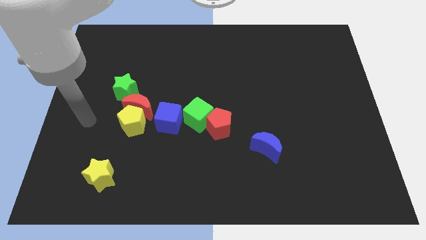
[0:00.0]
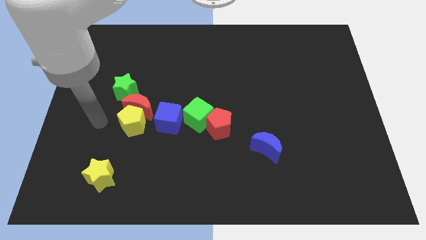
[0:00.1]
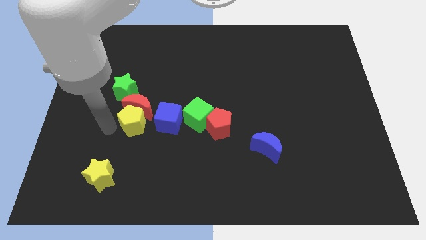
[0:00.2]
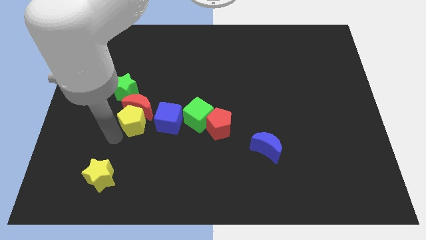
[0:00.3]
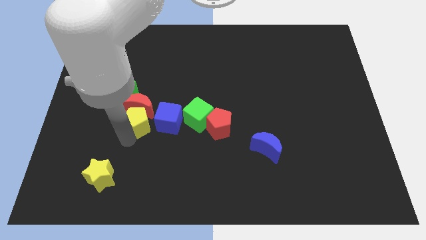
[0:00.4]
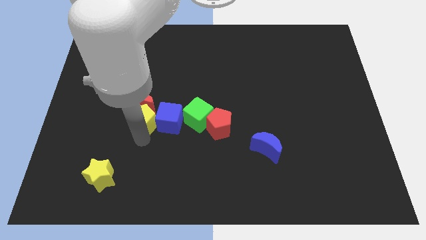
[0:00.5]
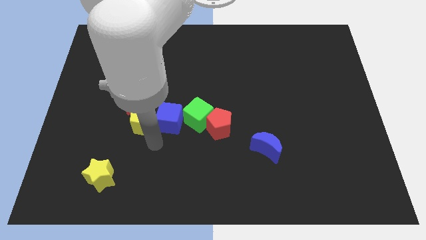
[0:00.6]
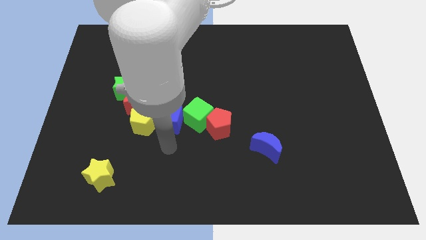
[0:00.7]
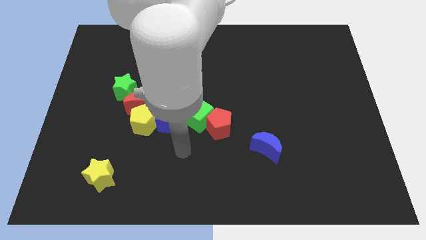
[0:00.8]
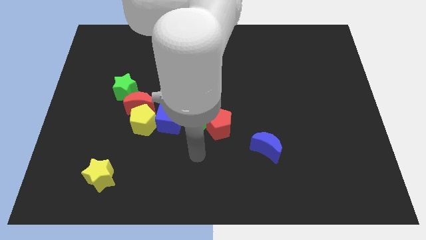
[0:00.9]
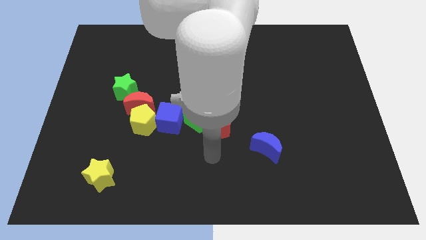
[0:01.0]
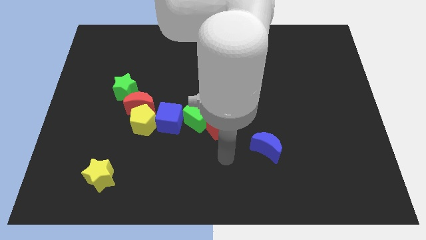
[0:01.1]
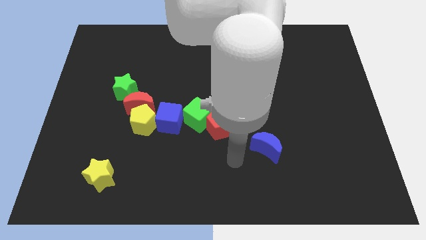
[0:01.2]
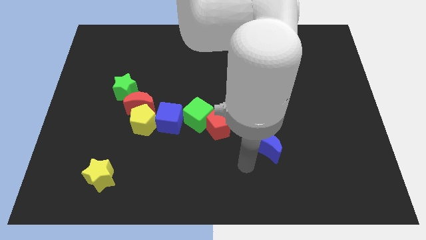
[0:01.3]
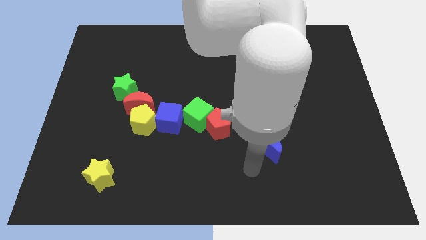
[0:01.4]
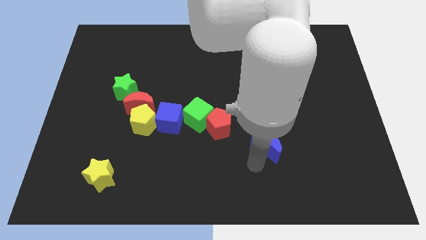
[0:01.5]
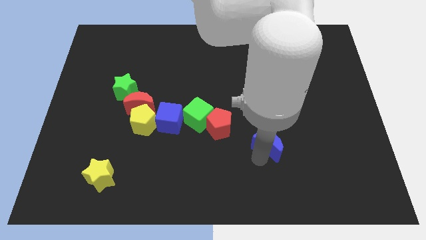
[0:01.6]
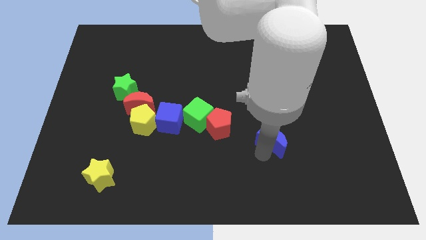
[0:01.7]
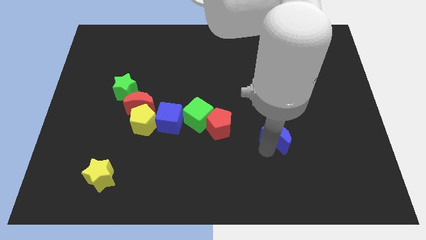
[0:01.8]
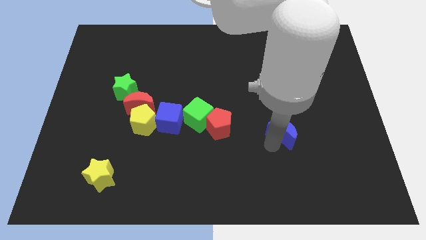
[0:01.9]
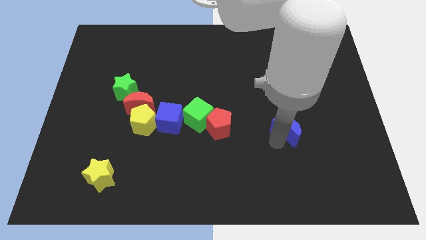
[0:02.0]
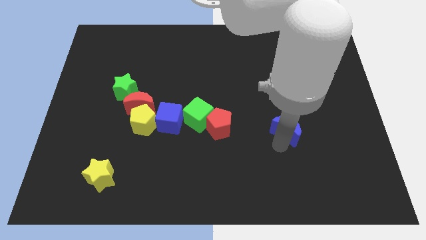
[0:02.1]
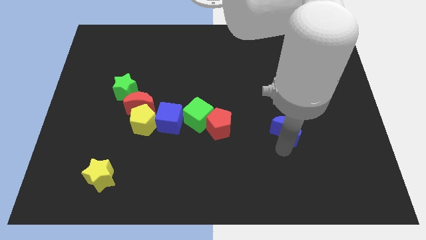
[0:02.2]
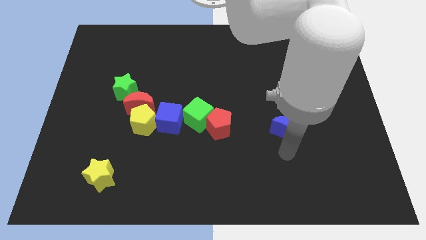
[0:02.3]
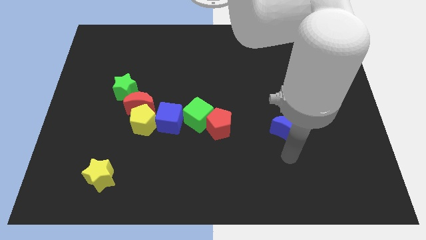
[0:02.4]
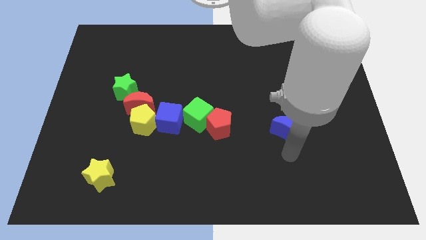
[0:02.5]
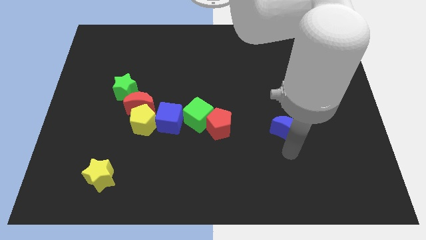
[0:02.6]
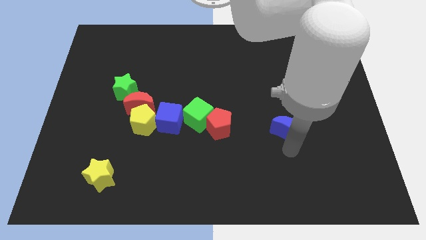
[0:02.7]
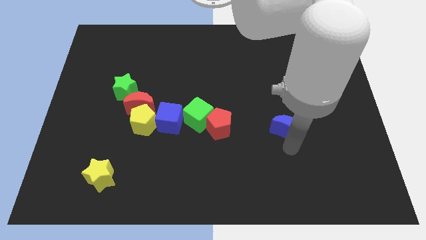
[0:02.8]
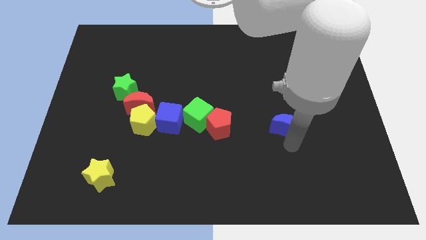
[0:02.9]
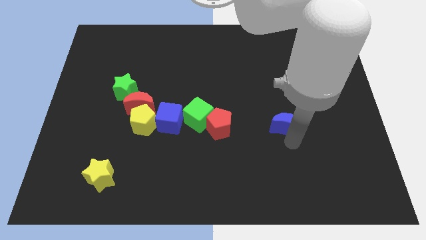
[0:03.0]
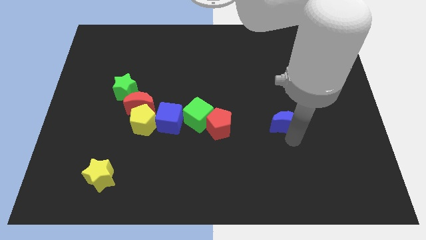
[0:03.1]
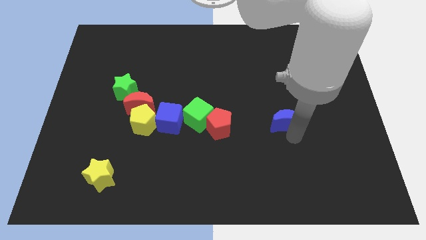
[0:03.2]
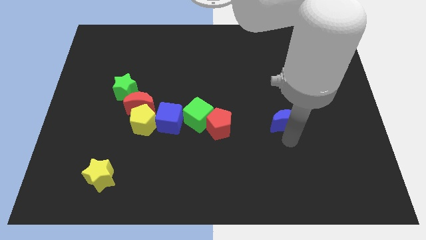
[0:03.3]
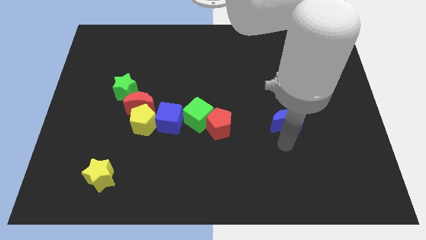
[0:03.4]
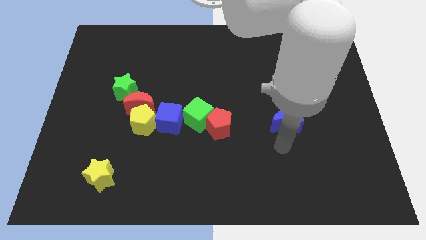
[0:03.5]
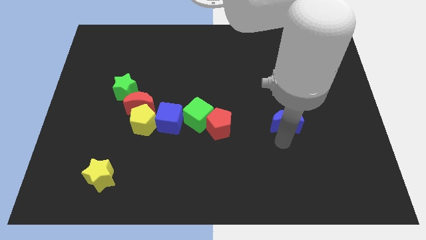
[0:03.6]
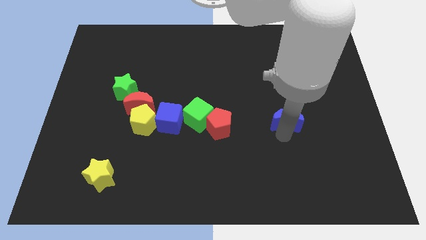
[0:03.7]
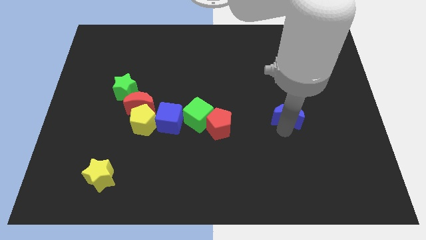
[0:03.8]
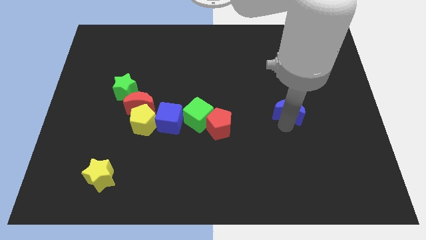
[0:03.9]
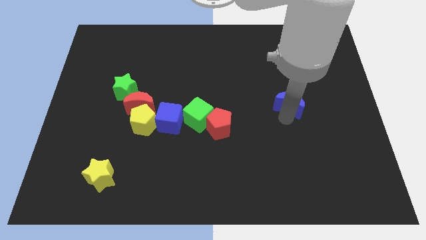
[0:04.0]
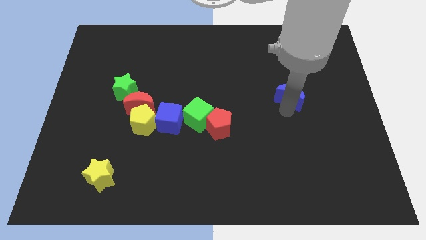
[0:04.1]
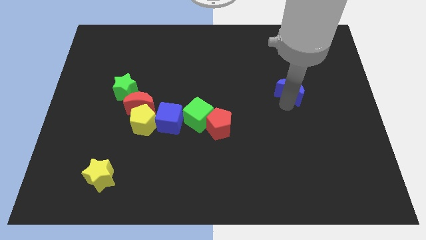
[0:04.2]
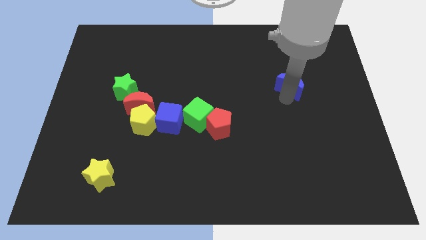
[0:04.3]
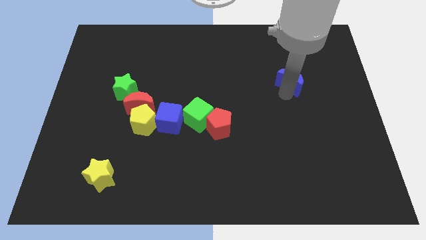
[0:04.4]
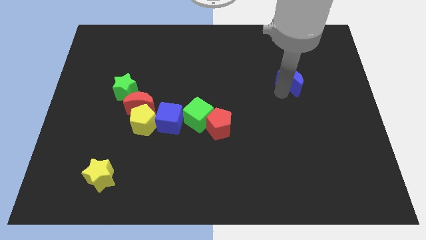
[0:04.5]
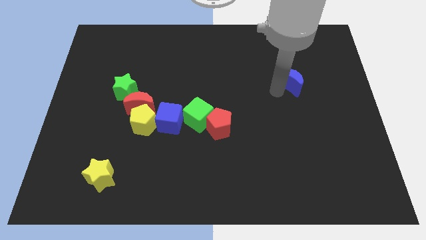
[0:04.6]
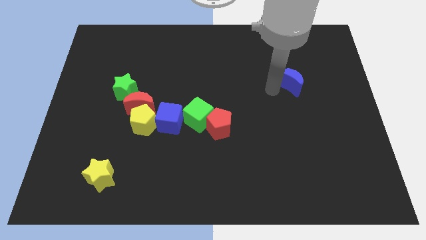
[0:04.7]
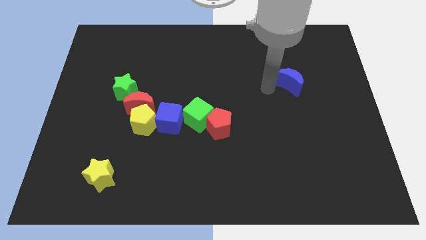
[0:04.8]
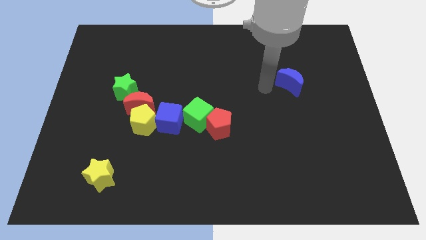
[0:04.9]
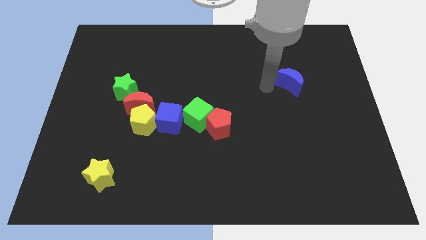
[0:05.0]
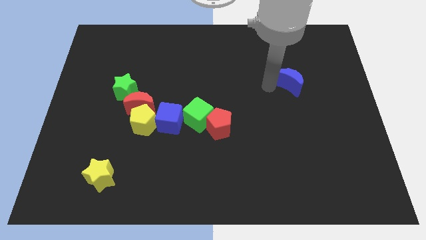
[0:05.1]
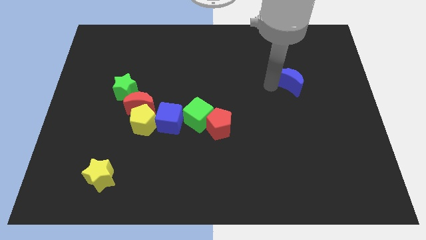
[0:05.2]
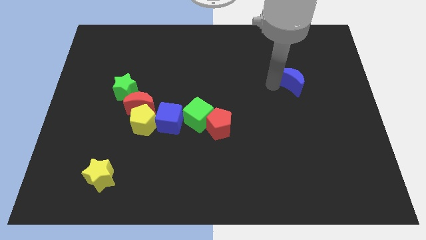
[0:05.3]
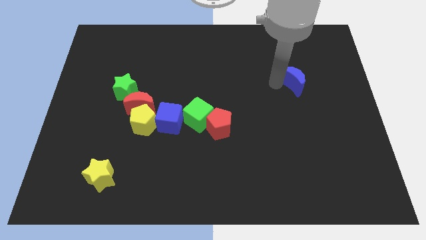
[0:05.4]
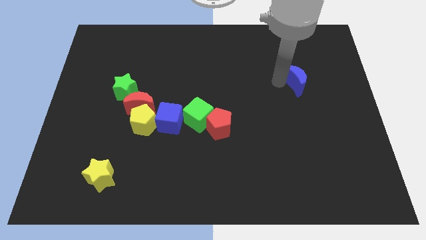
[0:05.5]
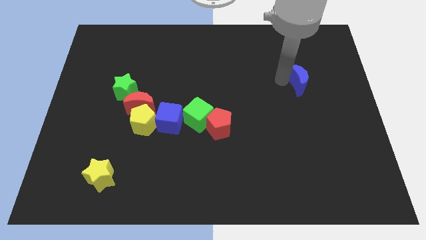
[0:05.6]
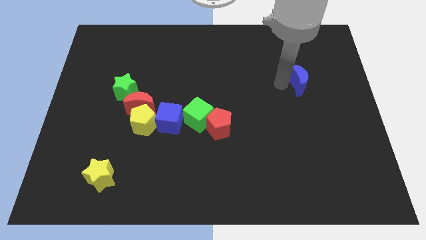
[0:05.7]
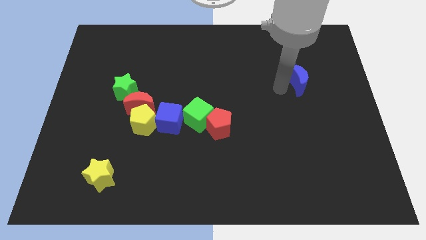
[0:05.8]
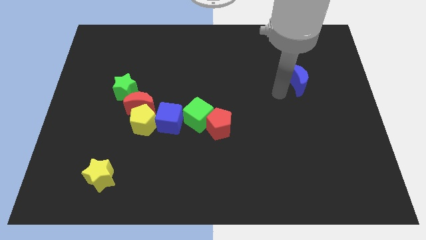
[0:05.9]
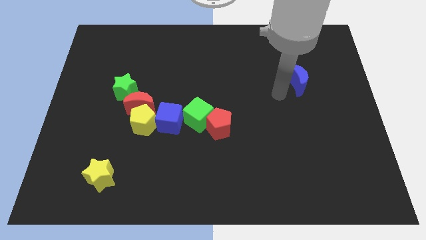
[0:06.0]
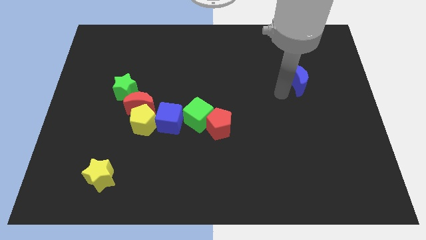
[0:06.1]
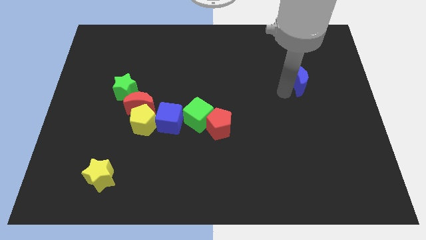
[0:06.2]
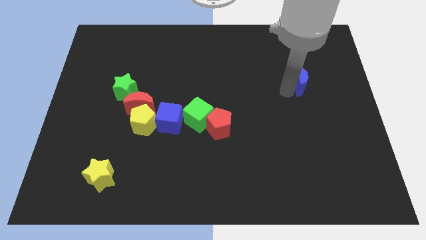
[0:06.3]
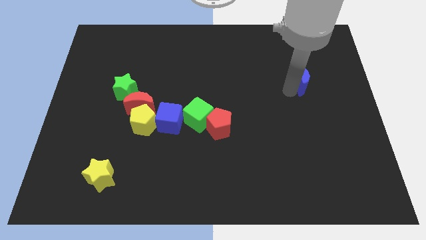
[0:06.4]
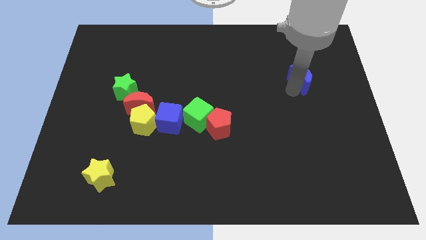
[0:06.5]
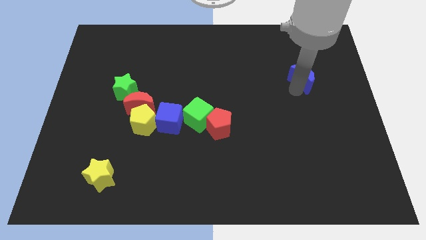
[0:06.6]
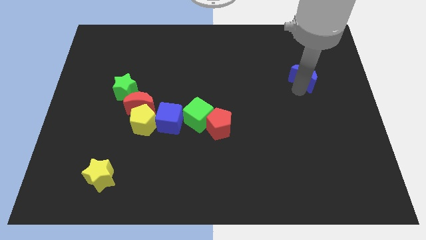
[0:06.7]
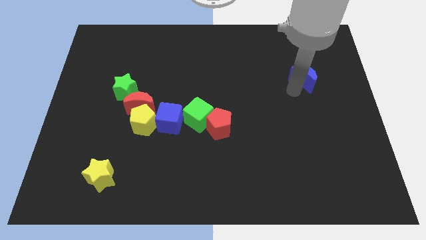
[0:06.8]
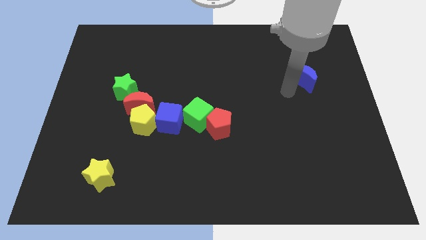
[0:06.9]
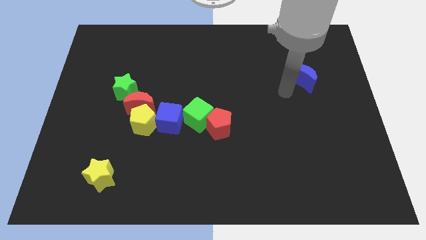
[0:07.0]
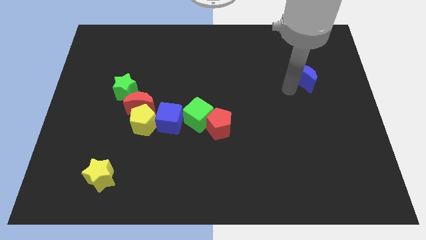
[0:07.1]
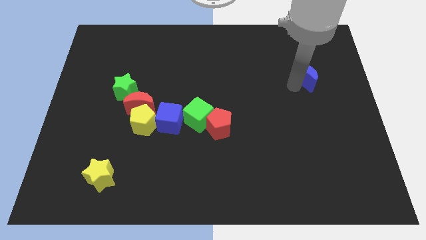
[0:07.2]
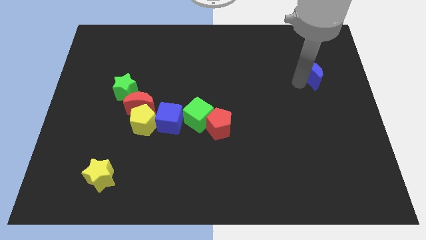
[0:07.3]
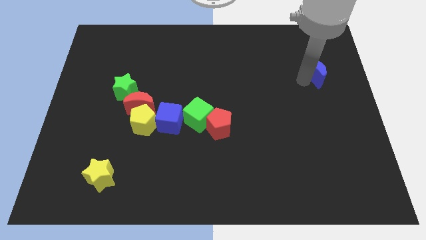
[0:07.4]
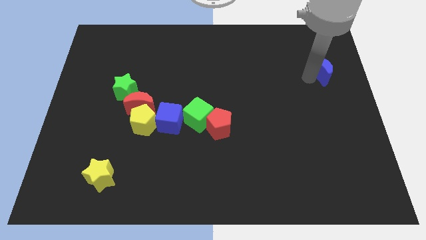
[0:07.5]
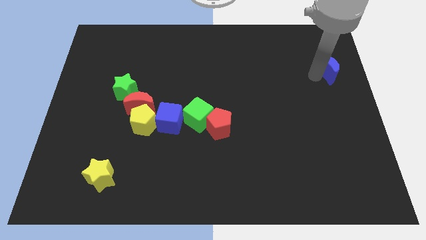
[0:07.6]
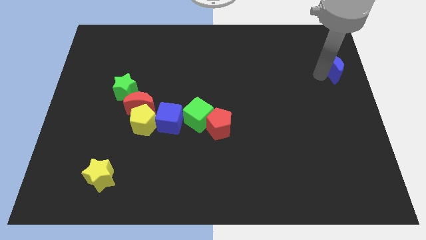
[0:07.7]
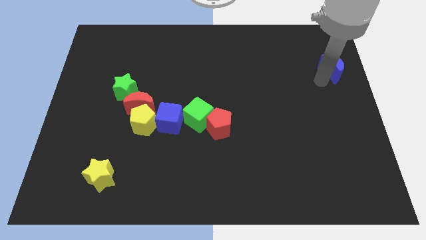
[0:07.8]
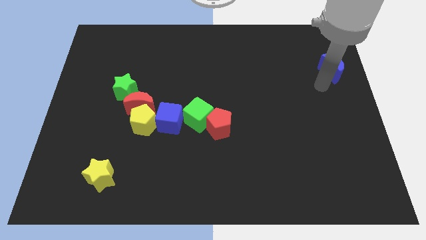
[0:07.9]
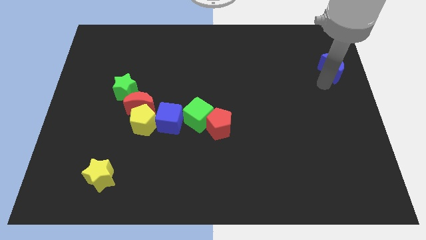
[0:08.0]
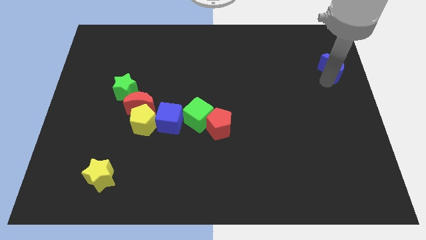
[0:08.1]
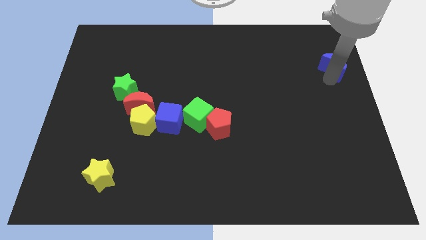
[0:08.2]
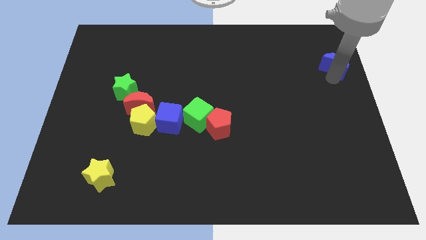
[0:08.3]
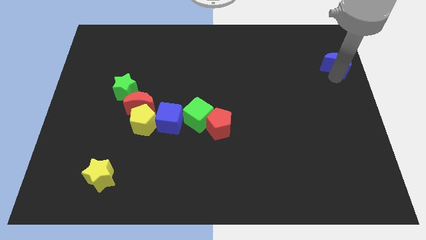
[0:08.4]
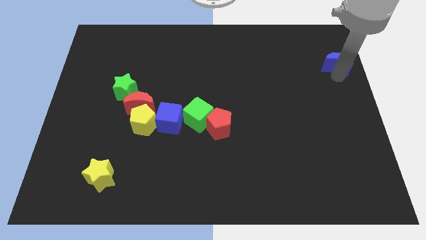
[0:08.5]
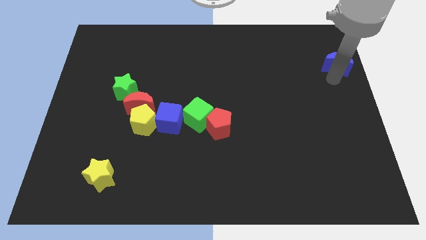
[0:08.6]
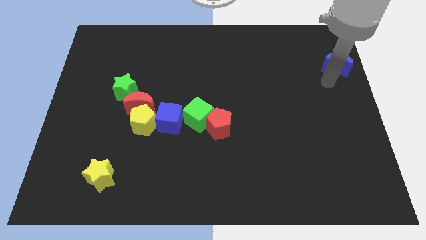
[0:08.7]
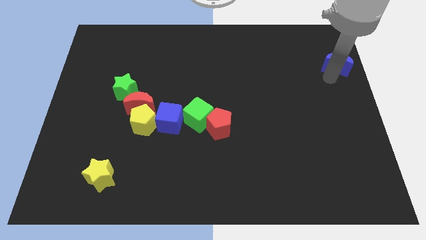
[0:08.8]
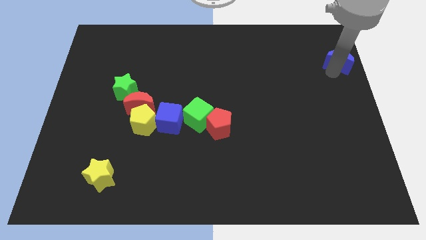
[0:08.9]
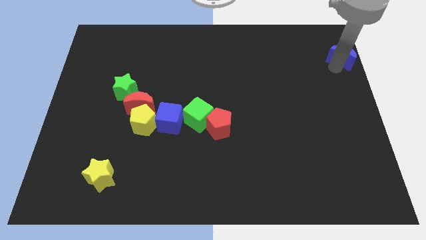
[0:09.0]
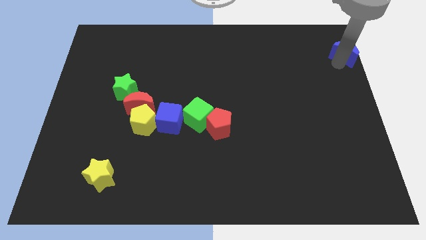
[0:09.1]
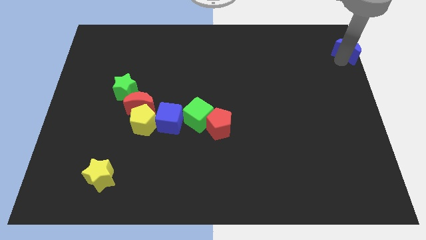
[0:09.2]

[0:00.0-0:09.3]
slide the blue moon to the top right of the board
